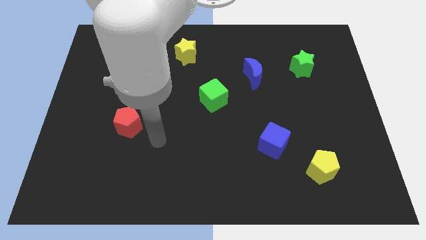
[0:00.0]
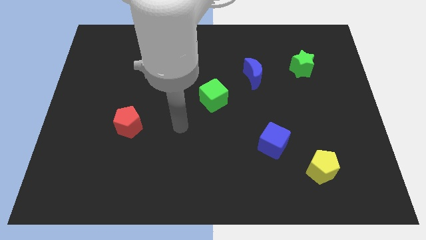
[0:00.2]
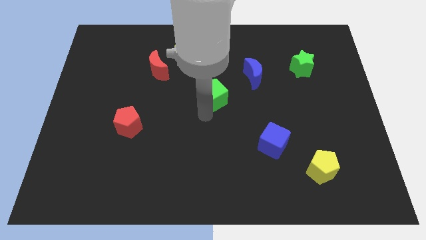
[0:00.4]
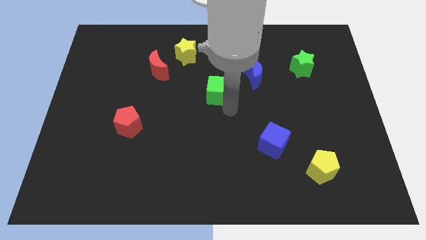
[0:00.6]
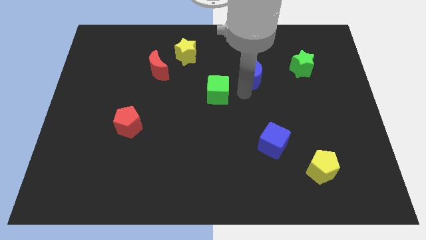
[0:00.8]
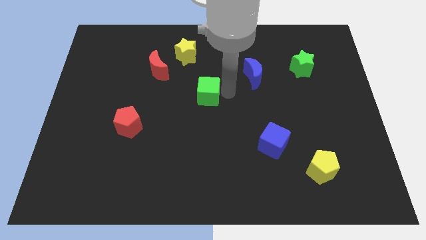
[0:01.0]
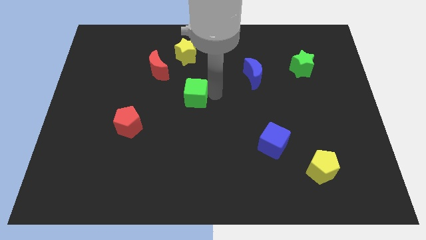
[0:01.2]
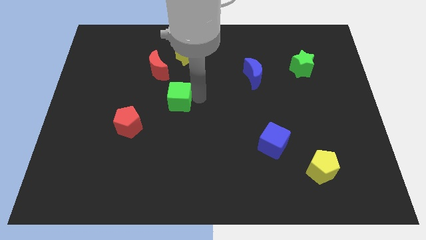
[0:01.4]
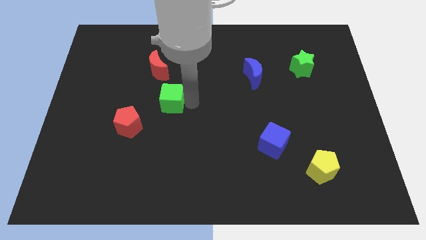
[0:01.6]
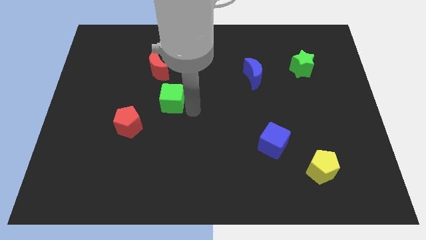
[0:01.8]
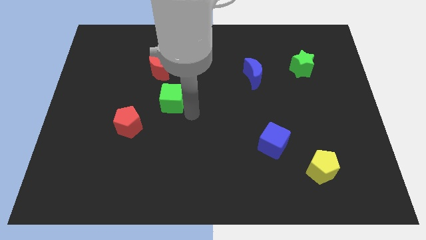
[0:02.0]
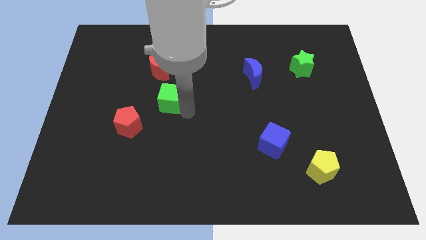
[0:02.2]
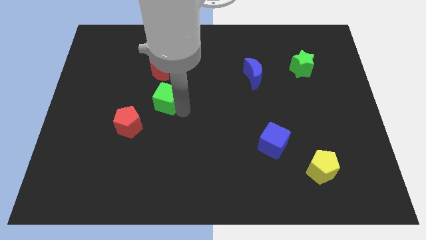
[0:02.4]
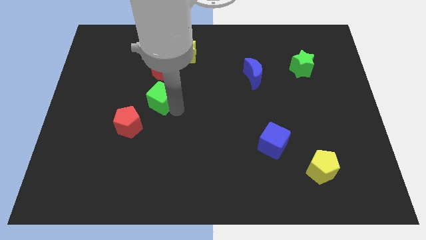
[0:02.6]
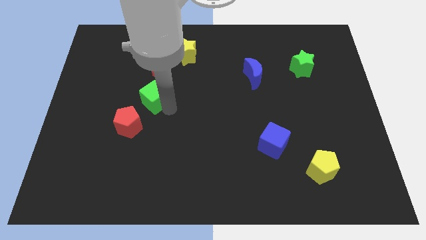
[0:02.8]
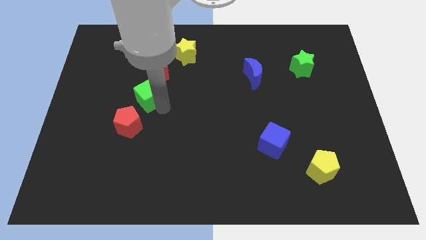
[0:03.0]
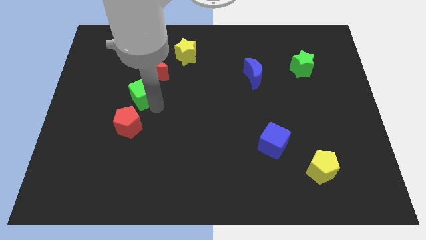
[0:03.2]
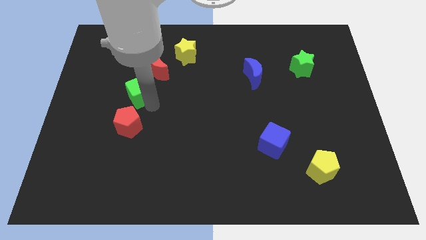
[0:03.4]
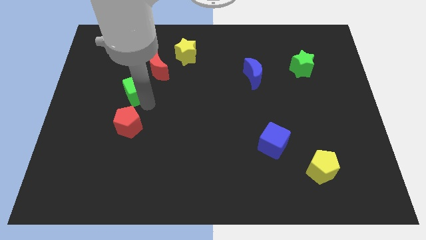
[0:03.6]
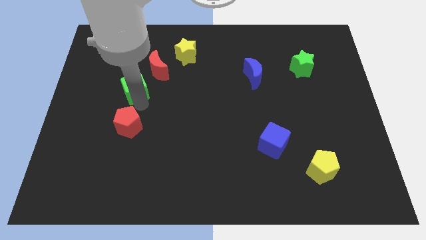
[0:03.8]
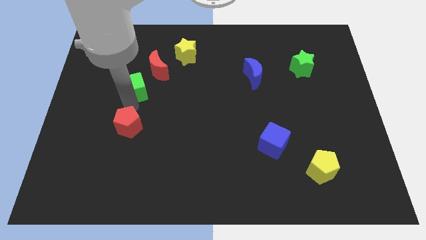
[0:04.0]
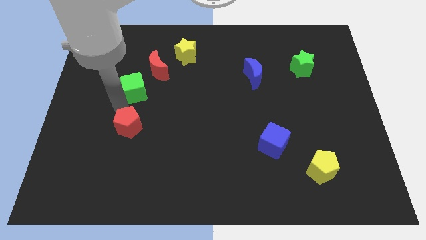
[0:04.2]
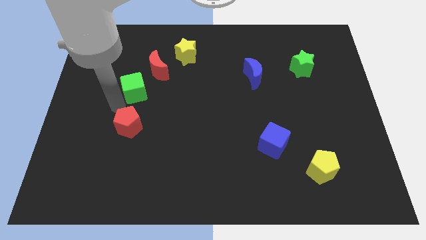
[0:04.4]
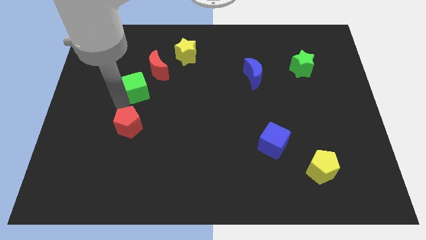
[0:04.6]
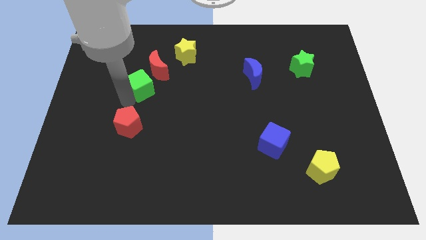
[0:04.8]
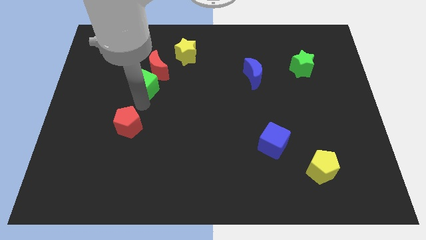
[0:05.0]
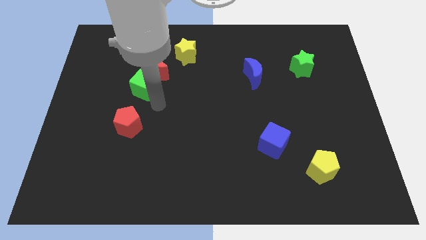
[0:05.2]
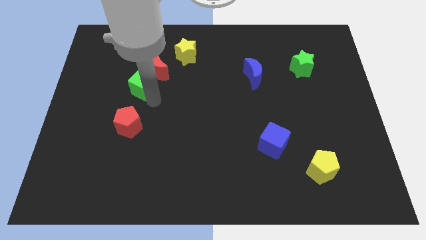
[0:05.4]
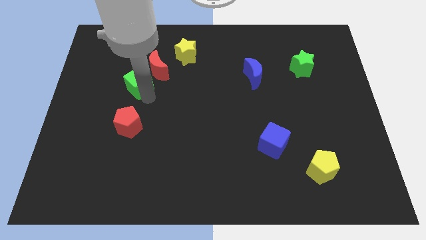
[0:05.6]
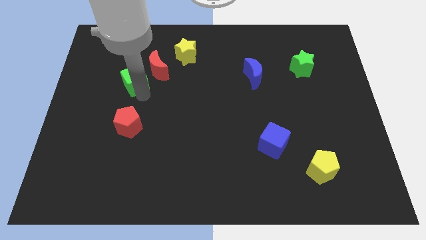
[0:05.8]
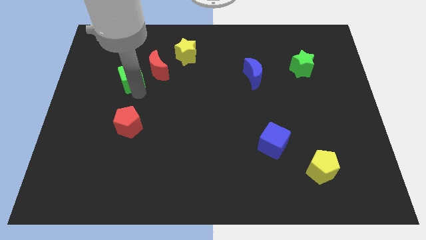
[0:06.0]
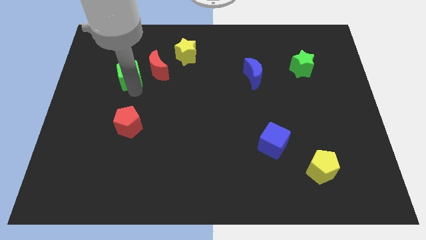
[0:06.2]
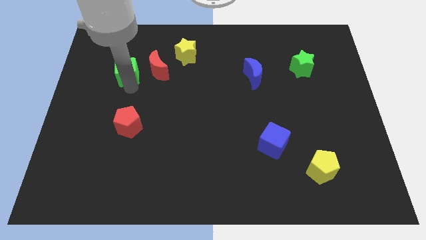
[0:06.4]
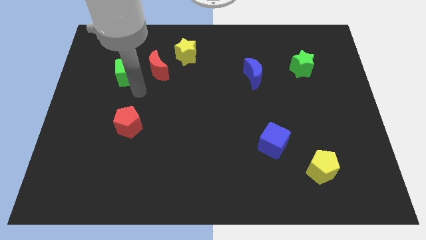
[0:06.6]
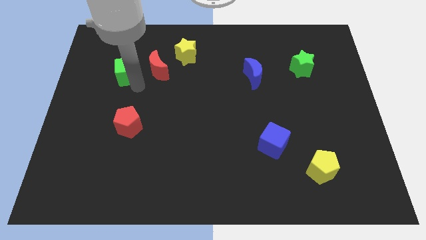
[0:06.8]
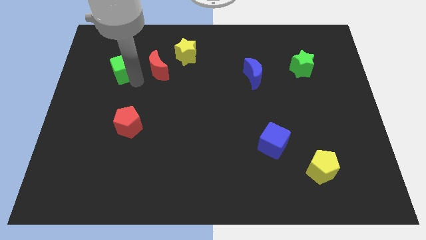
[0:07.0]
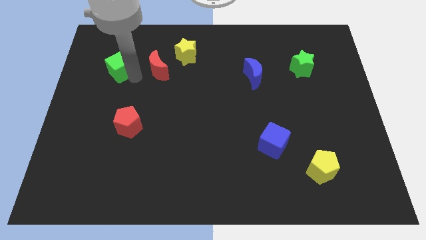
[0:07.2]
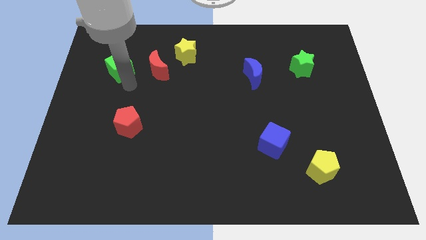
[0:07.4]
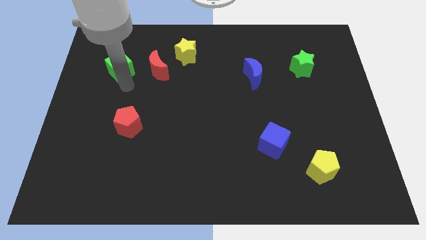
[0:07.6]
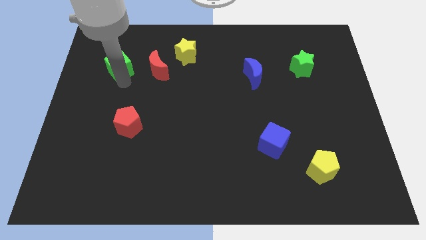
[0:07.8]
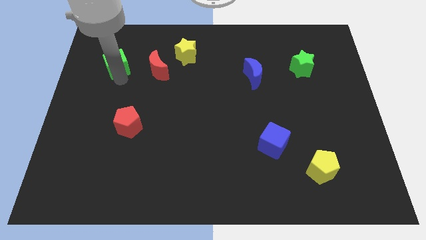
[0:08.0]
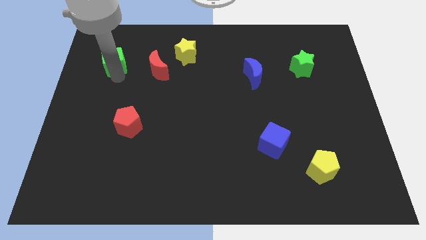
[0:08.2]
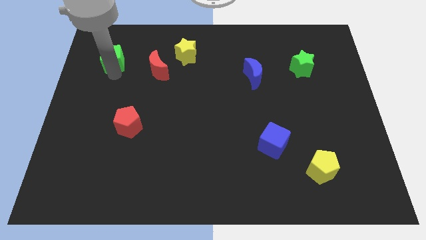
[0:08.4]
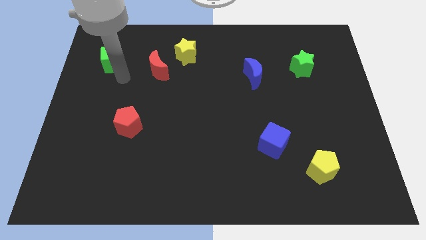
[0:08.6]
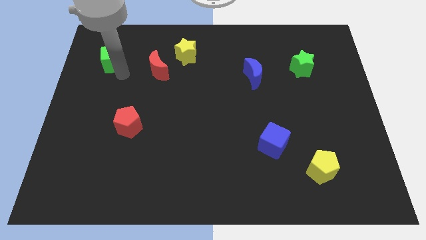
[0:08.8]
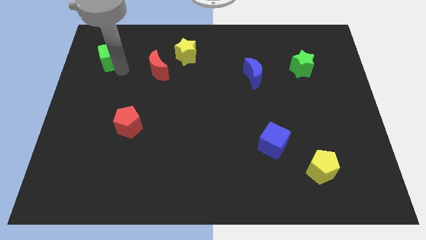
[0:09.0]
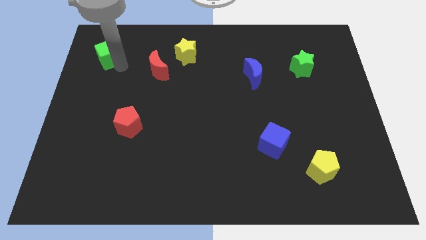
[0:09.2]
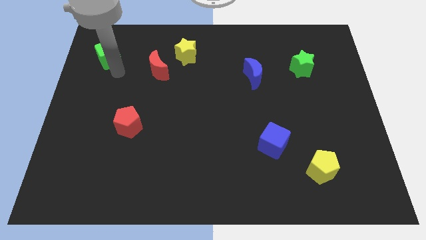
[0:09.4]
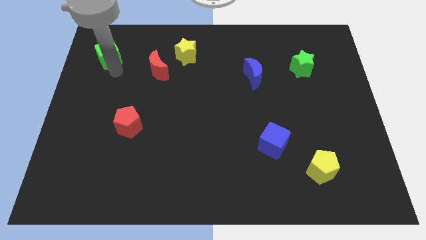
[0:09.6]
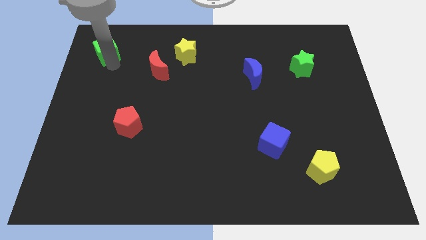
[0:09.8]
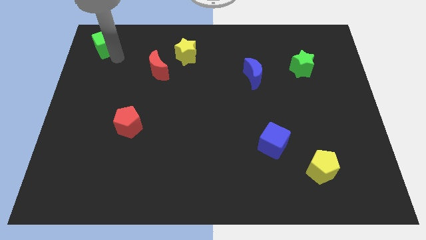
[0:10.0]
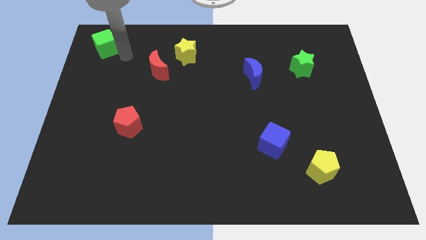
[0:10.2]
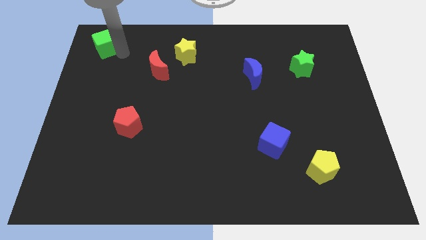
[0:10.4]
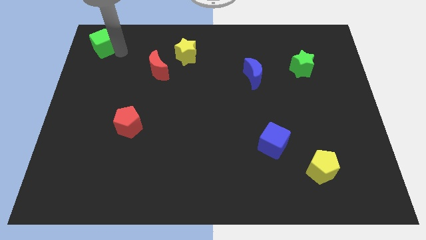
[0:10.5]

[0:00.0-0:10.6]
move the green cube to the top left corner

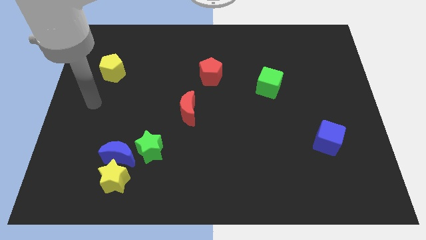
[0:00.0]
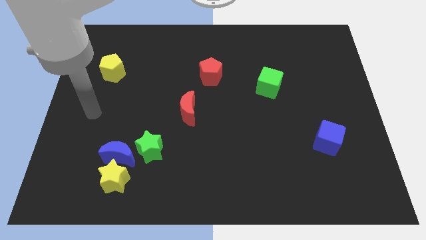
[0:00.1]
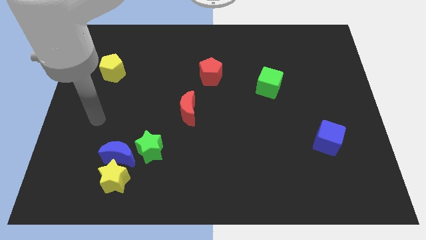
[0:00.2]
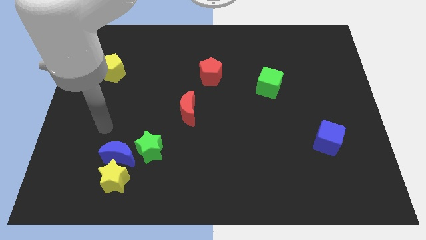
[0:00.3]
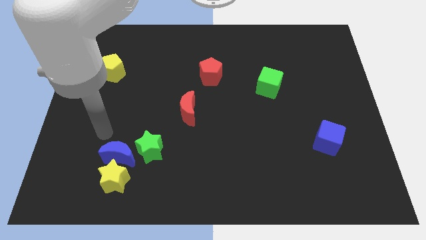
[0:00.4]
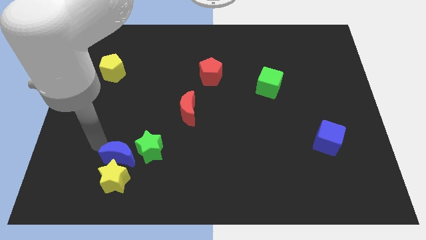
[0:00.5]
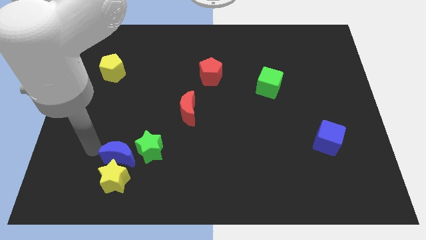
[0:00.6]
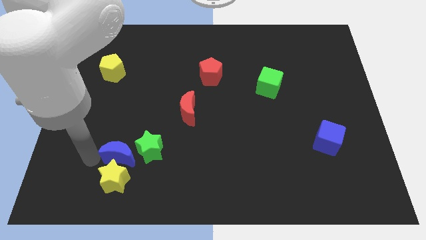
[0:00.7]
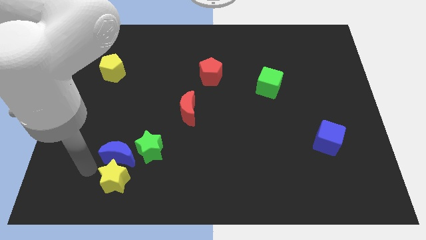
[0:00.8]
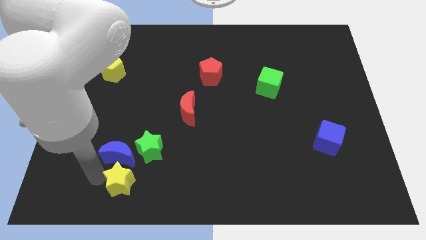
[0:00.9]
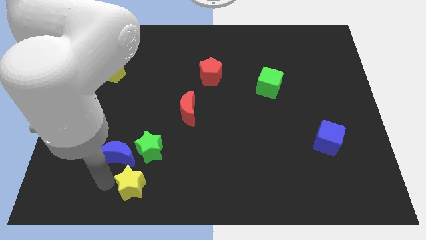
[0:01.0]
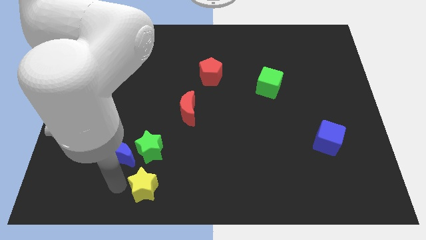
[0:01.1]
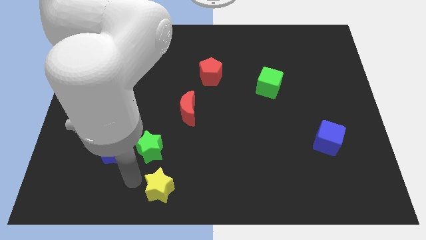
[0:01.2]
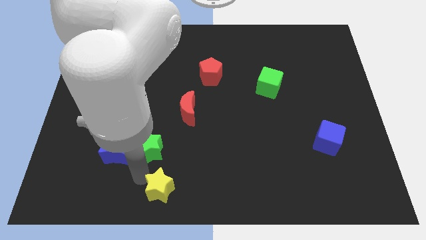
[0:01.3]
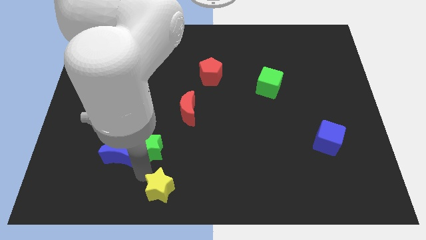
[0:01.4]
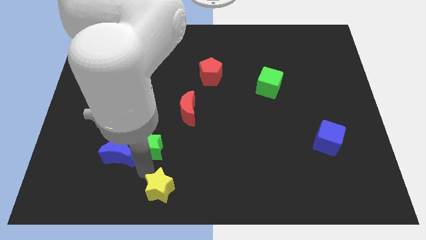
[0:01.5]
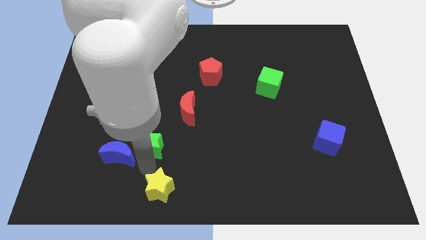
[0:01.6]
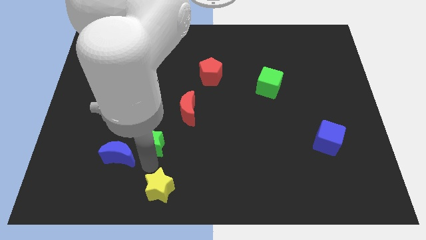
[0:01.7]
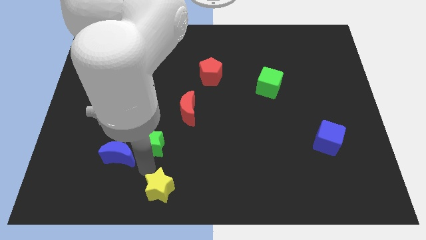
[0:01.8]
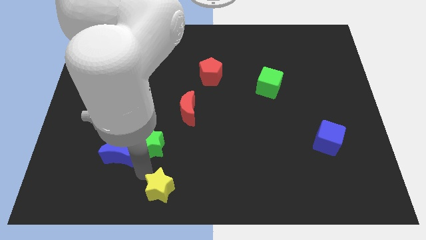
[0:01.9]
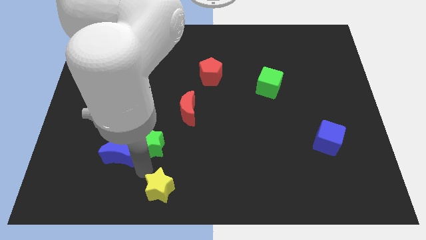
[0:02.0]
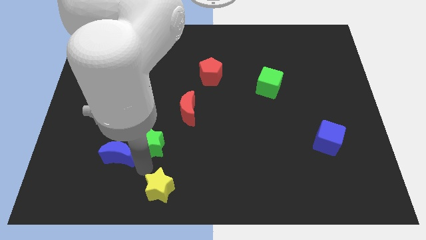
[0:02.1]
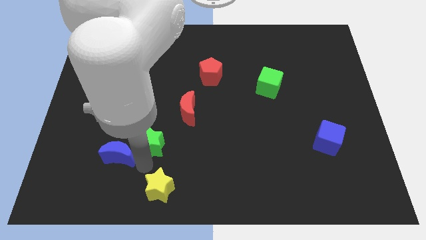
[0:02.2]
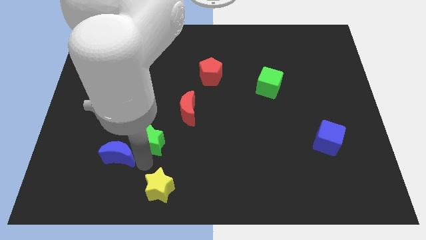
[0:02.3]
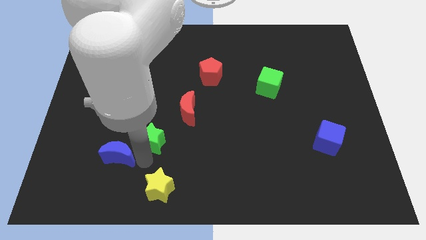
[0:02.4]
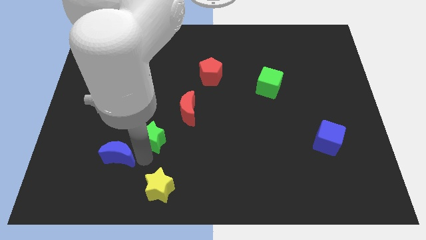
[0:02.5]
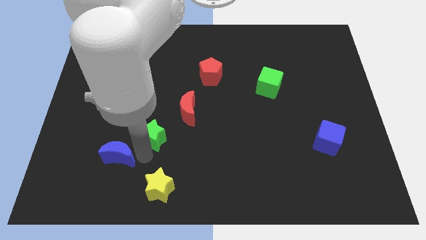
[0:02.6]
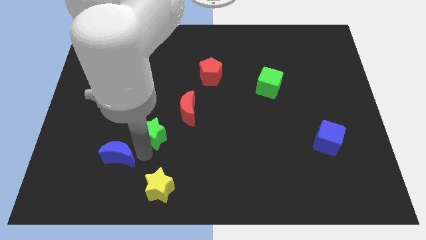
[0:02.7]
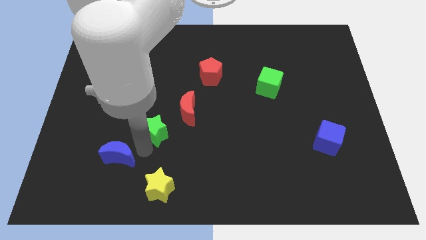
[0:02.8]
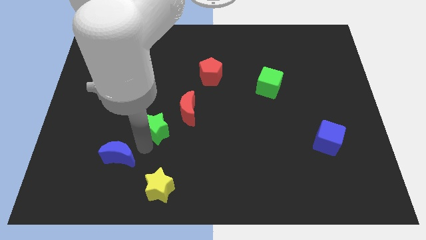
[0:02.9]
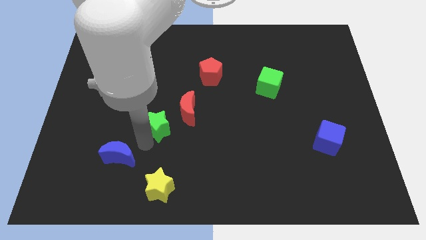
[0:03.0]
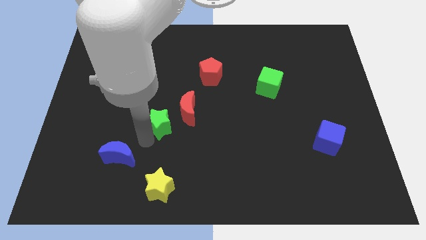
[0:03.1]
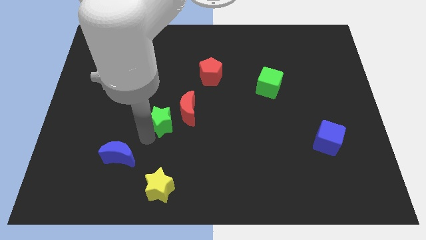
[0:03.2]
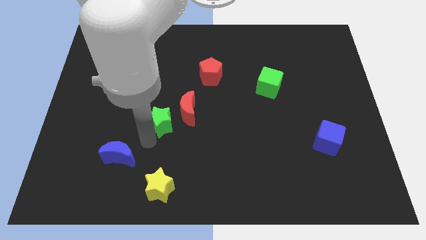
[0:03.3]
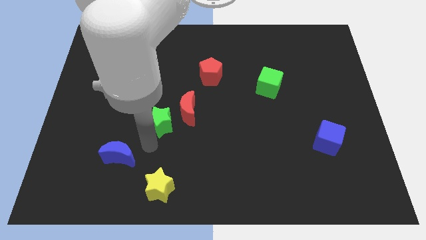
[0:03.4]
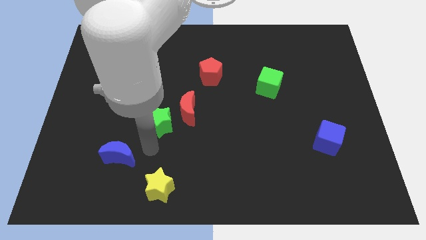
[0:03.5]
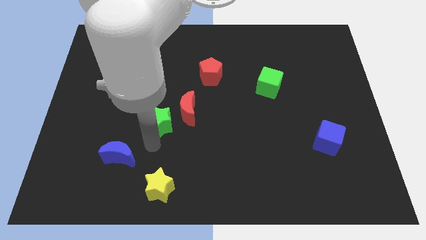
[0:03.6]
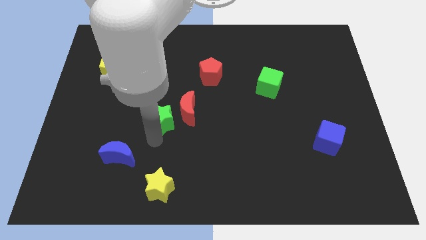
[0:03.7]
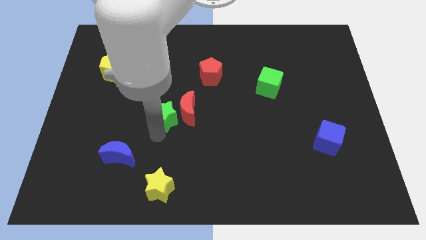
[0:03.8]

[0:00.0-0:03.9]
put the green star to the middle of the board
